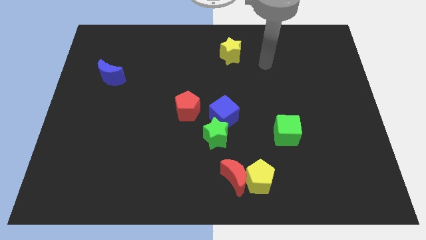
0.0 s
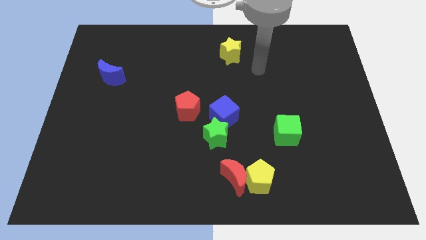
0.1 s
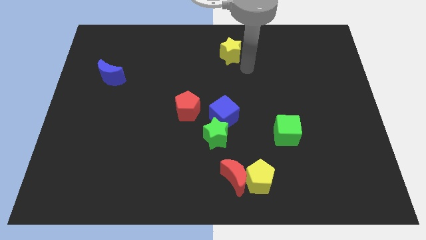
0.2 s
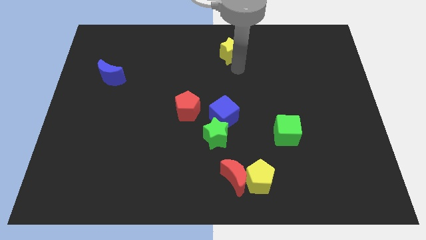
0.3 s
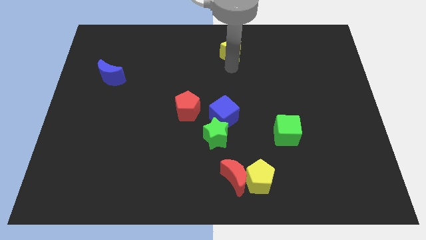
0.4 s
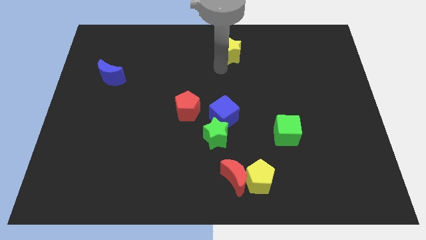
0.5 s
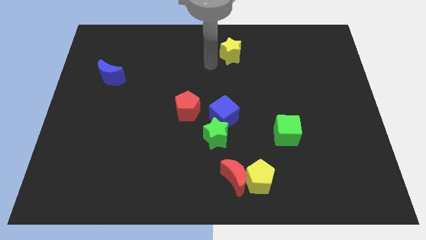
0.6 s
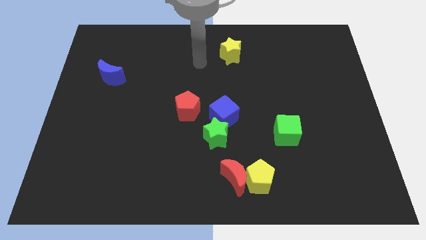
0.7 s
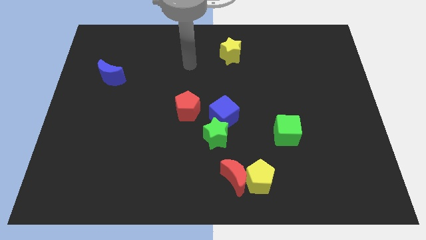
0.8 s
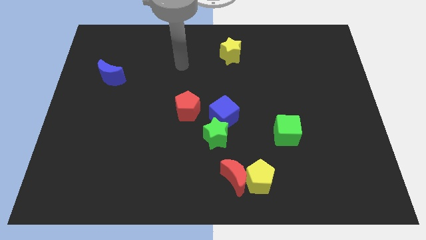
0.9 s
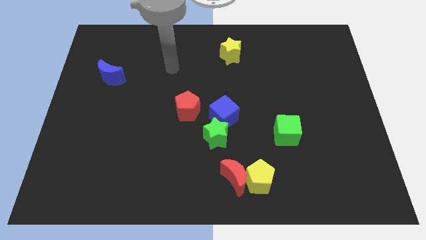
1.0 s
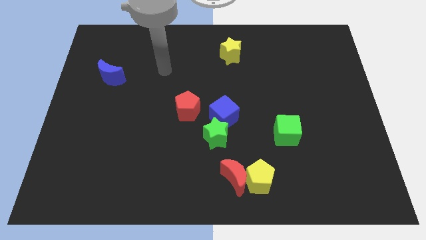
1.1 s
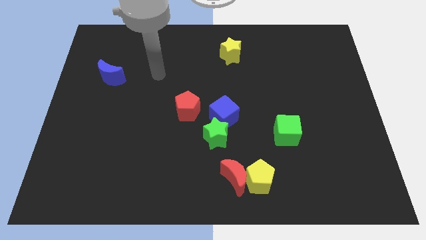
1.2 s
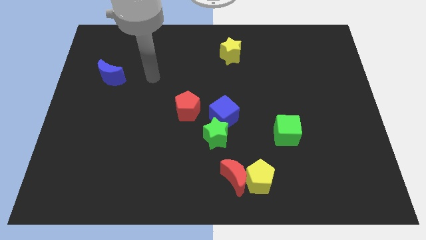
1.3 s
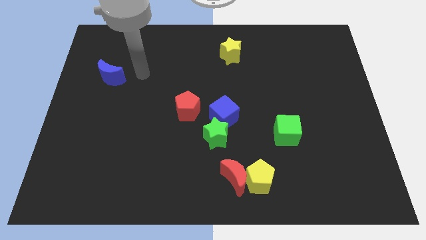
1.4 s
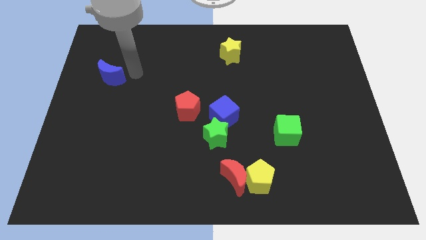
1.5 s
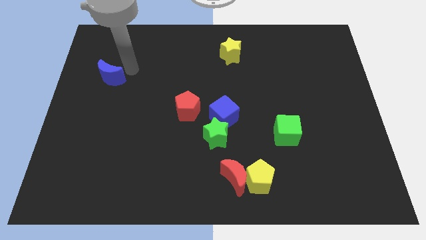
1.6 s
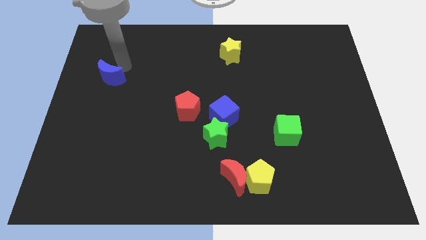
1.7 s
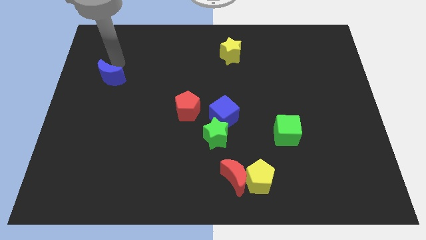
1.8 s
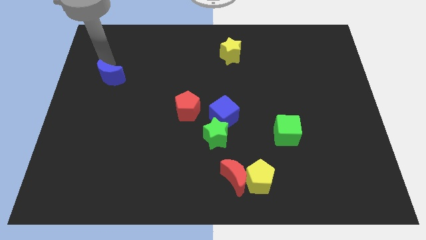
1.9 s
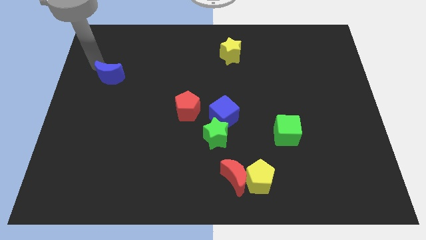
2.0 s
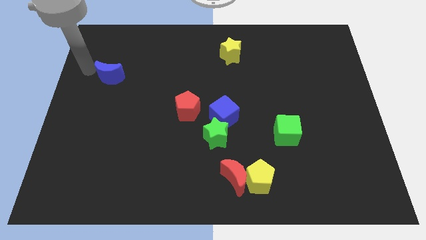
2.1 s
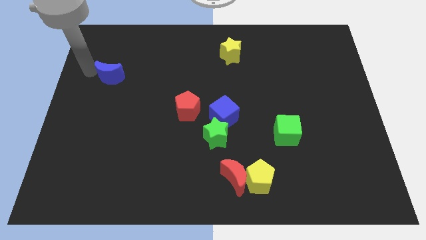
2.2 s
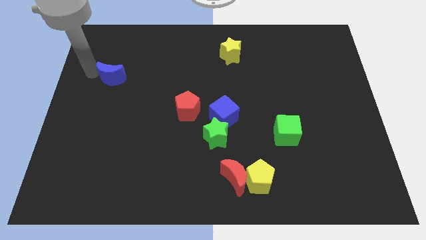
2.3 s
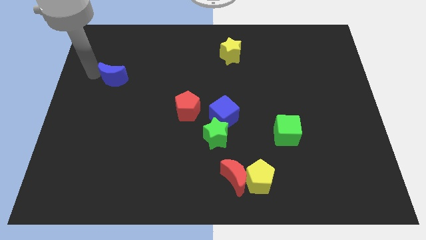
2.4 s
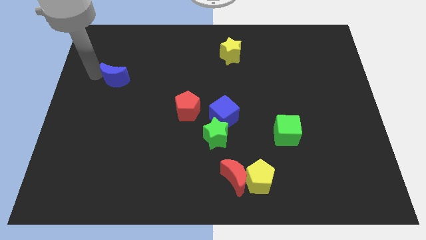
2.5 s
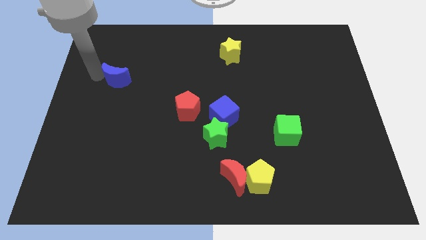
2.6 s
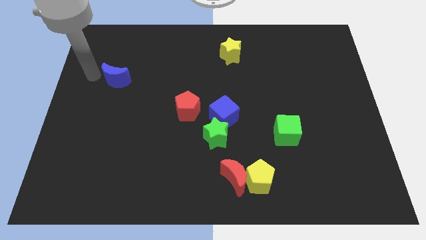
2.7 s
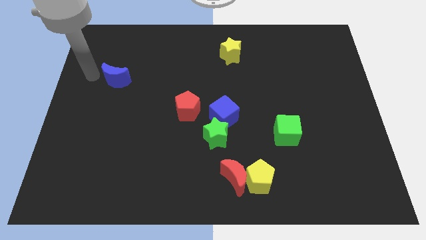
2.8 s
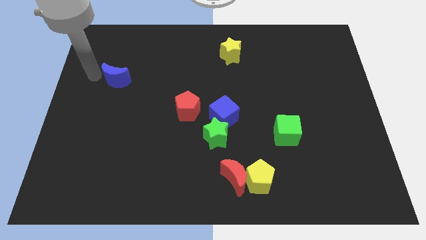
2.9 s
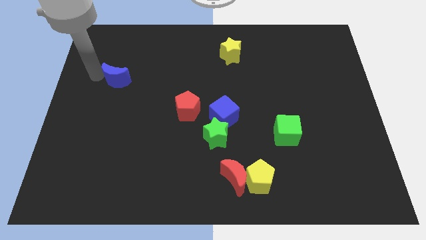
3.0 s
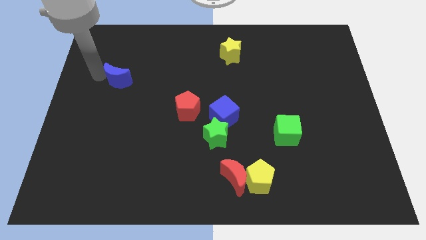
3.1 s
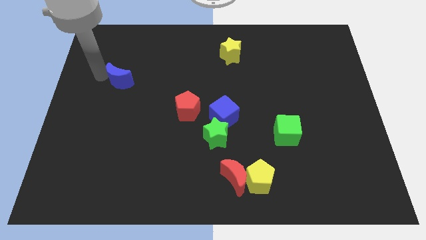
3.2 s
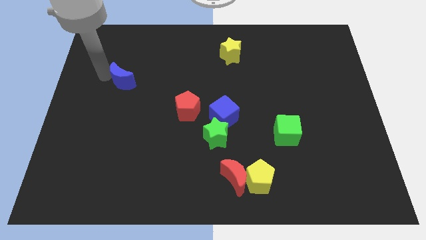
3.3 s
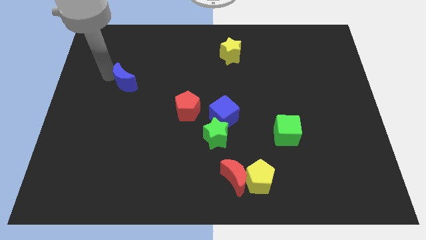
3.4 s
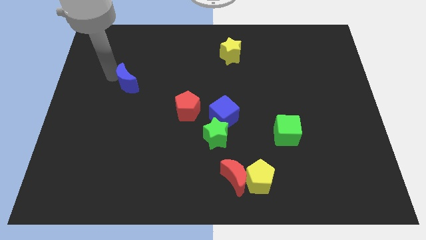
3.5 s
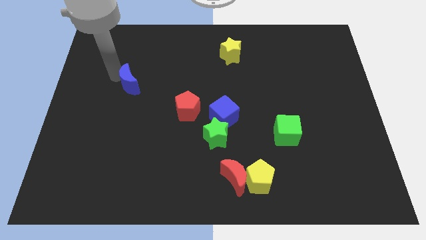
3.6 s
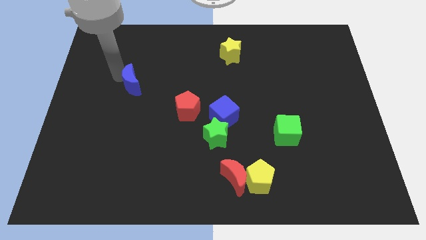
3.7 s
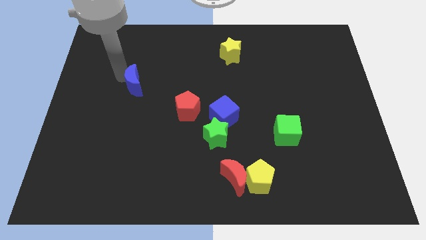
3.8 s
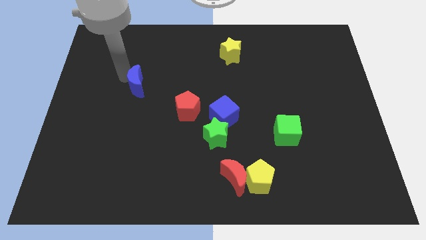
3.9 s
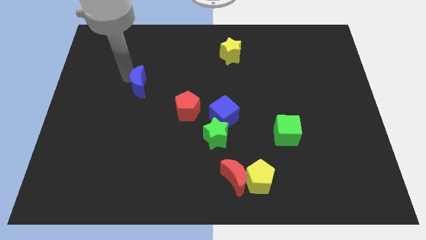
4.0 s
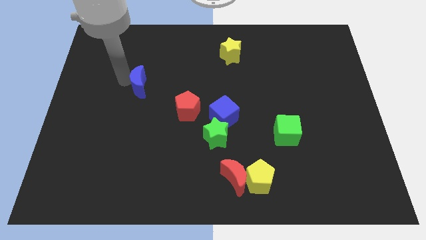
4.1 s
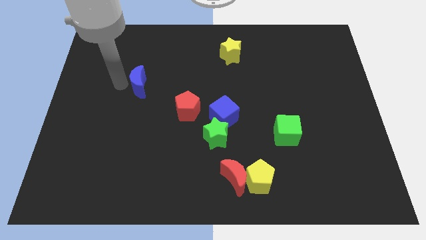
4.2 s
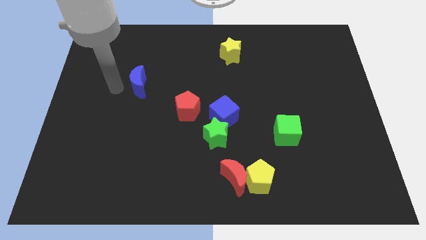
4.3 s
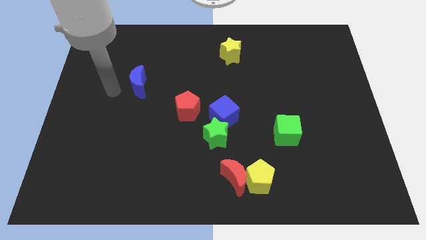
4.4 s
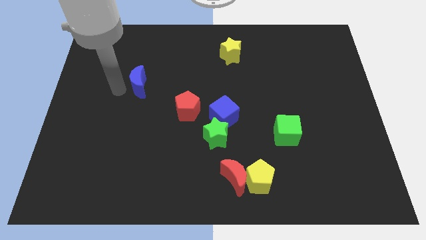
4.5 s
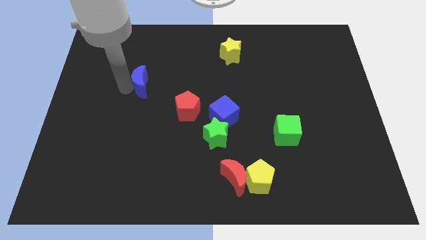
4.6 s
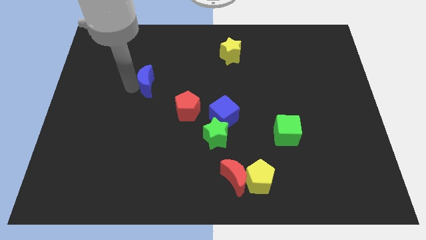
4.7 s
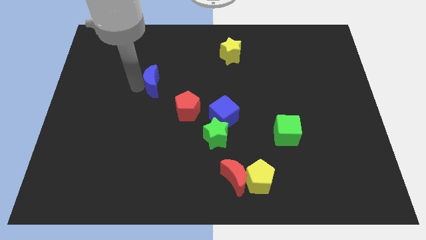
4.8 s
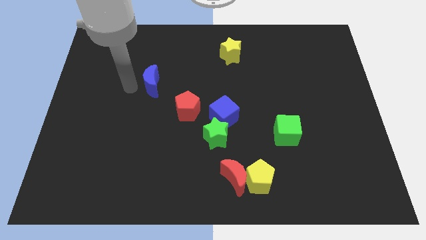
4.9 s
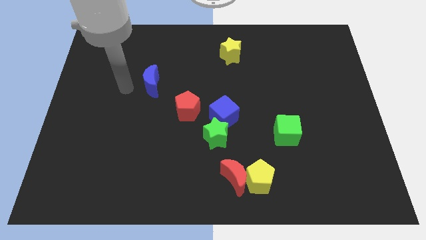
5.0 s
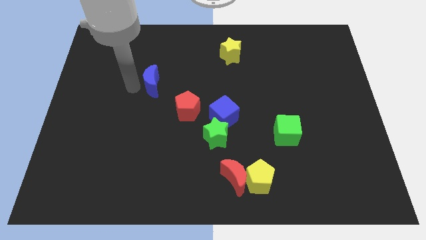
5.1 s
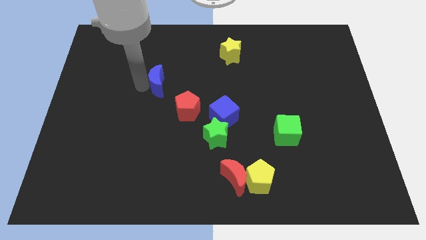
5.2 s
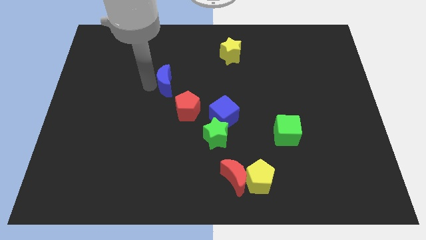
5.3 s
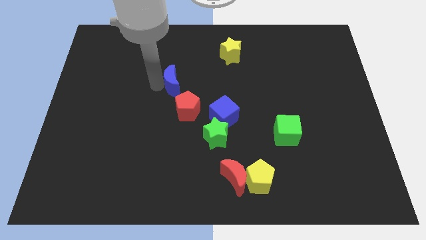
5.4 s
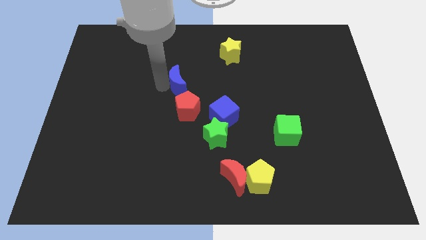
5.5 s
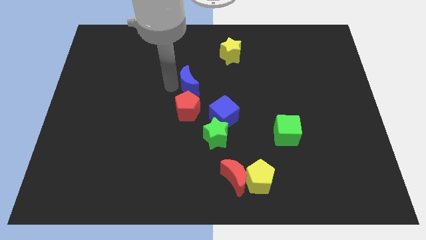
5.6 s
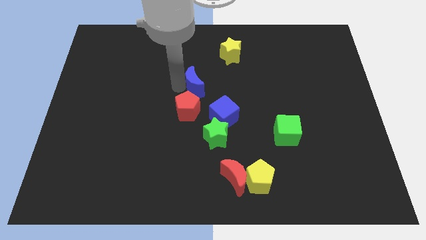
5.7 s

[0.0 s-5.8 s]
push the blue moon to the right

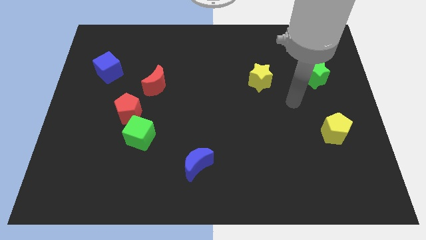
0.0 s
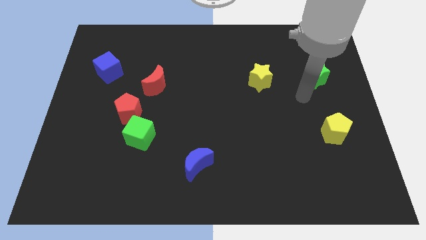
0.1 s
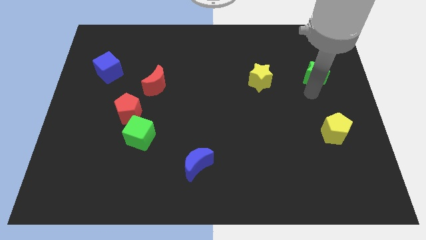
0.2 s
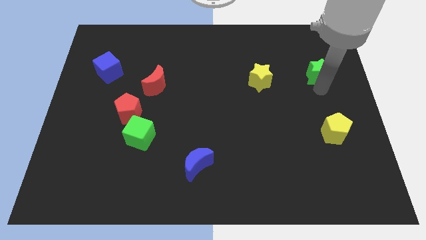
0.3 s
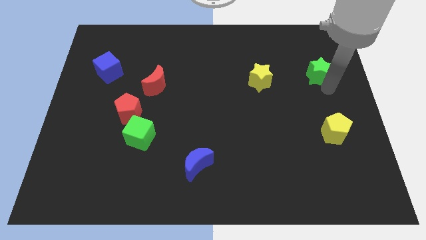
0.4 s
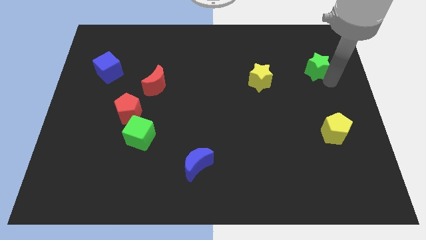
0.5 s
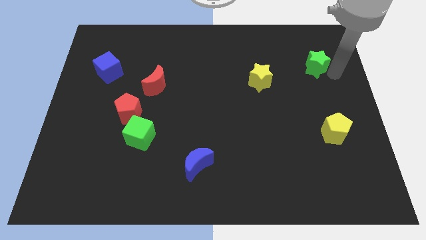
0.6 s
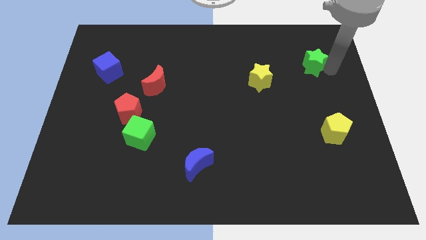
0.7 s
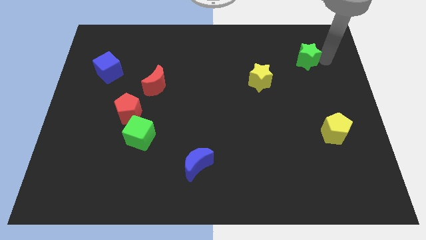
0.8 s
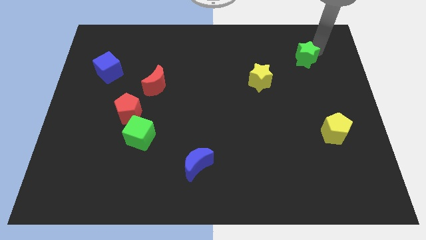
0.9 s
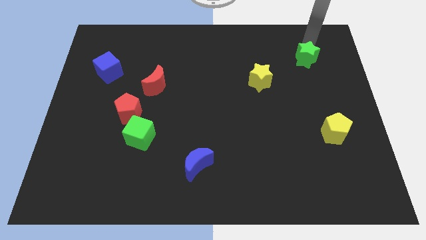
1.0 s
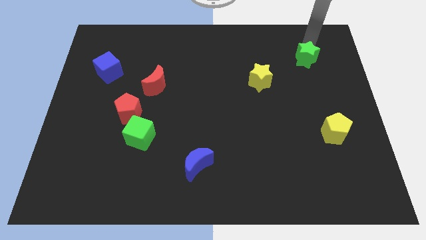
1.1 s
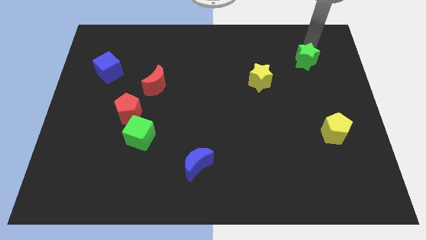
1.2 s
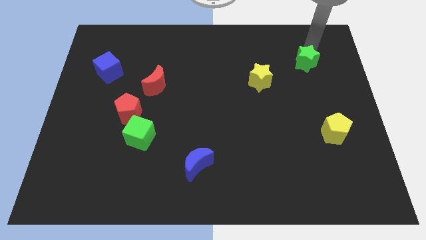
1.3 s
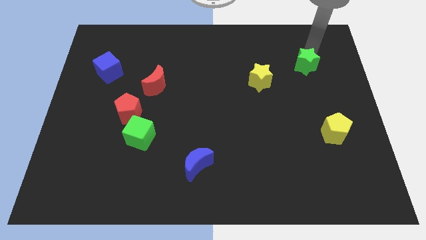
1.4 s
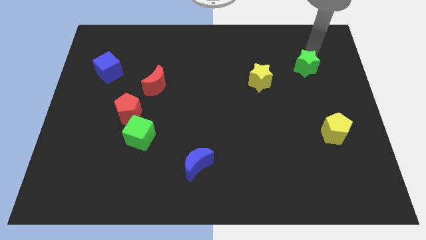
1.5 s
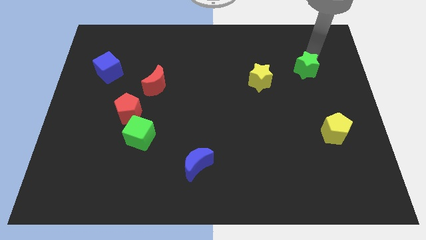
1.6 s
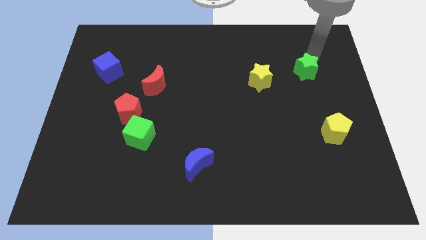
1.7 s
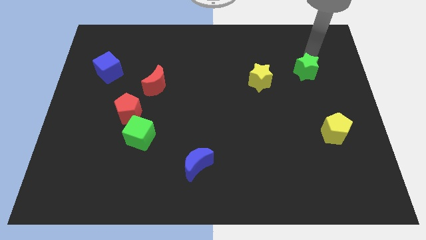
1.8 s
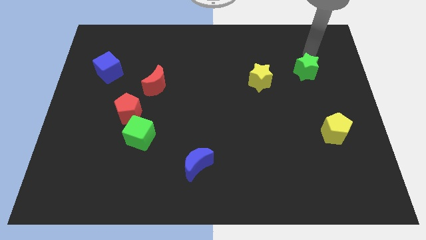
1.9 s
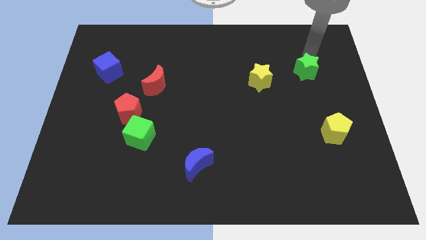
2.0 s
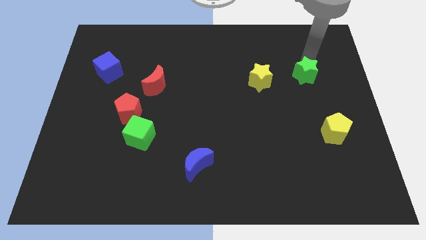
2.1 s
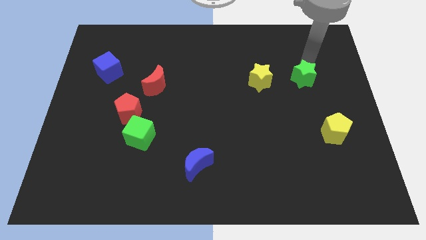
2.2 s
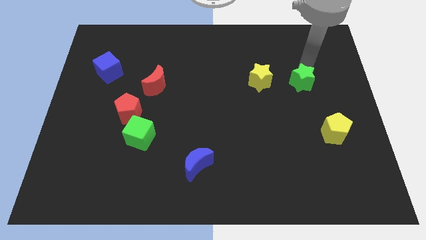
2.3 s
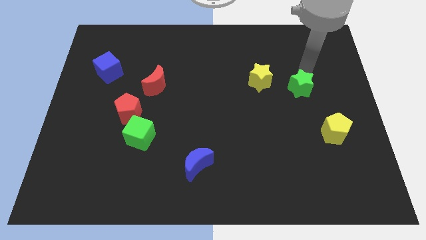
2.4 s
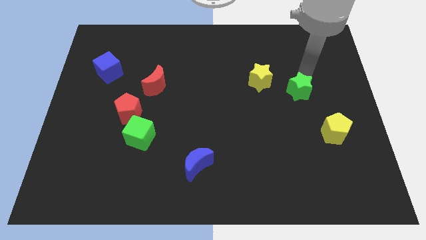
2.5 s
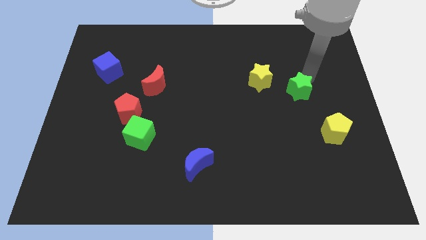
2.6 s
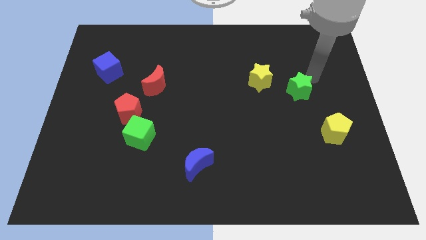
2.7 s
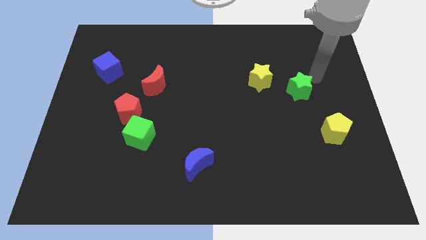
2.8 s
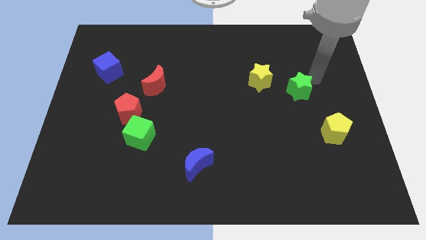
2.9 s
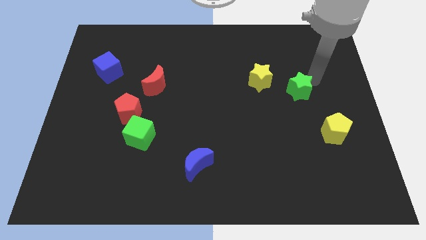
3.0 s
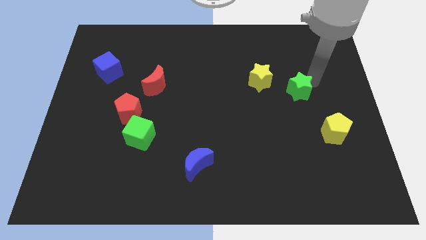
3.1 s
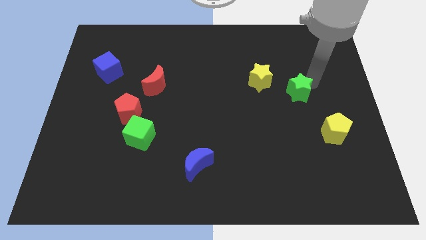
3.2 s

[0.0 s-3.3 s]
slide the green star slightly downwards and left
